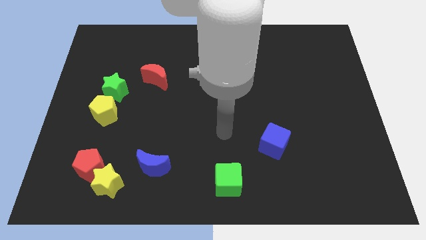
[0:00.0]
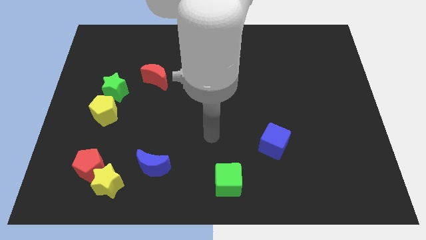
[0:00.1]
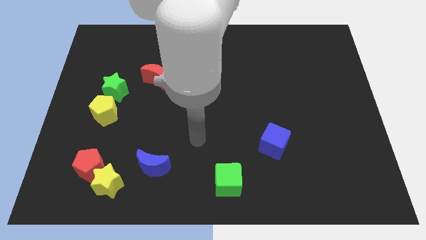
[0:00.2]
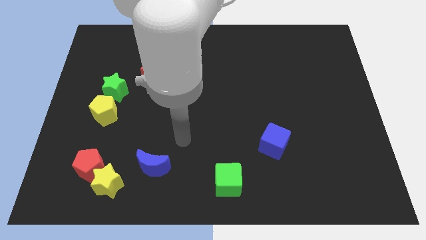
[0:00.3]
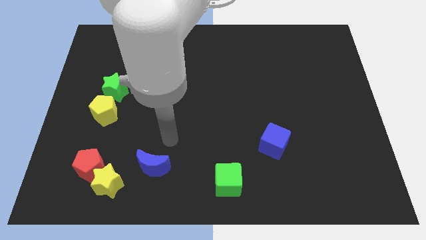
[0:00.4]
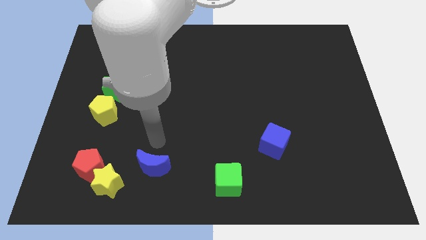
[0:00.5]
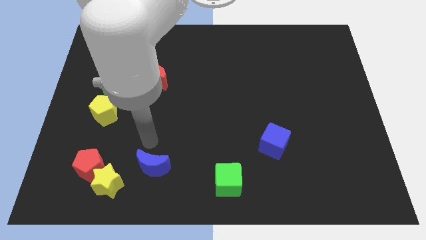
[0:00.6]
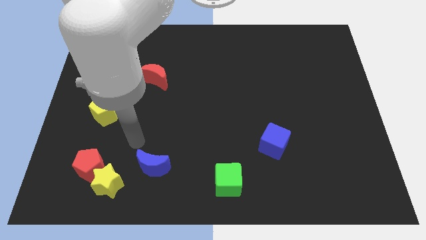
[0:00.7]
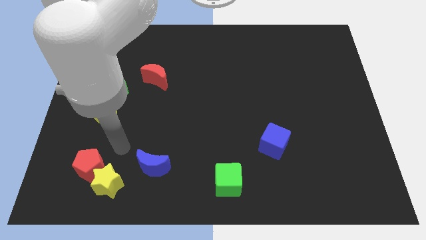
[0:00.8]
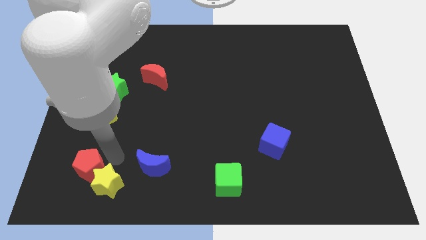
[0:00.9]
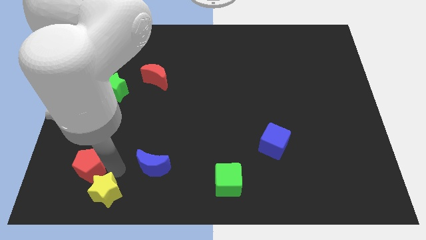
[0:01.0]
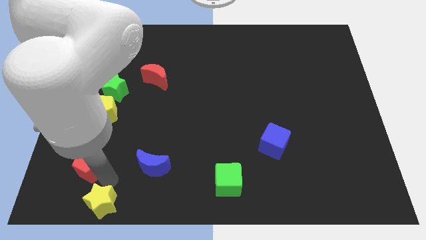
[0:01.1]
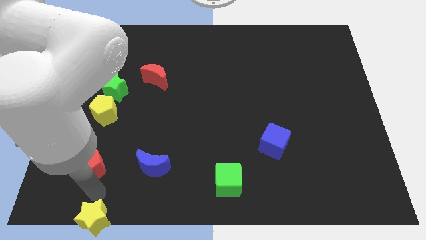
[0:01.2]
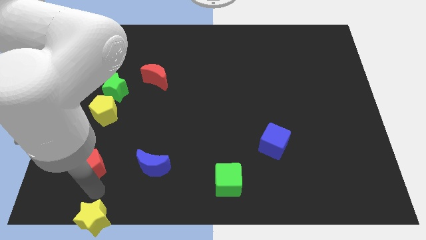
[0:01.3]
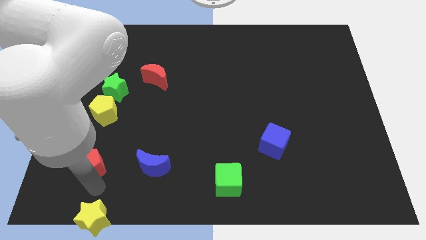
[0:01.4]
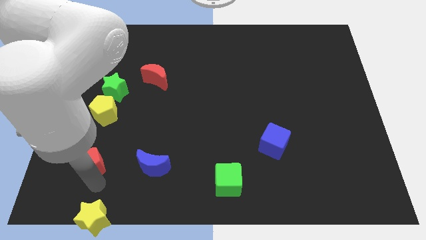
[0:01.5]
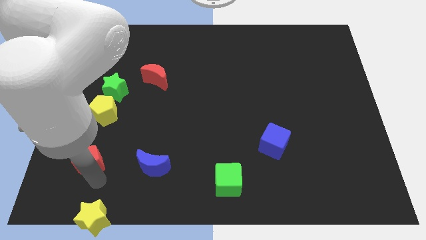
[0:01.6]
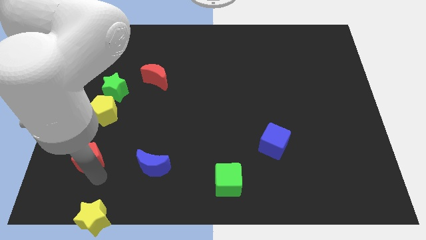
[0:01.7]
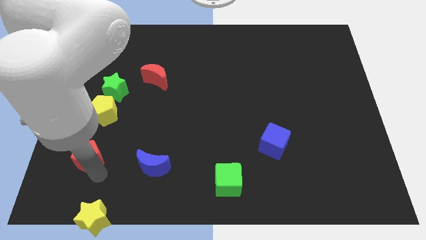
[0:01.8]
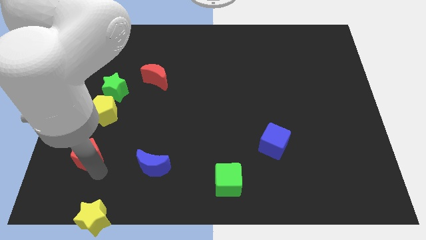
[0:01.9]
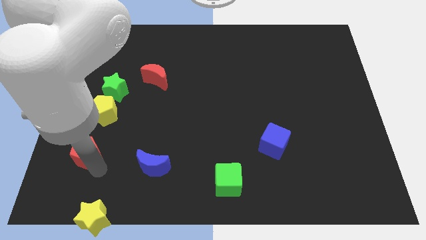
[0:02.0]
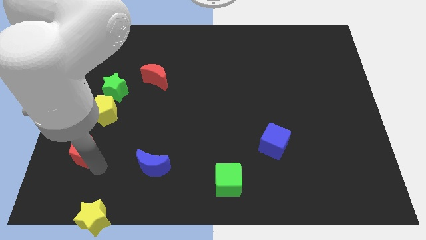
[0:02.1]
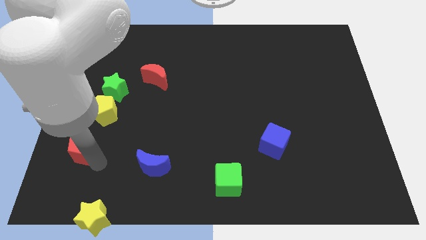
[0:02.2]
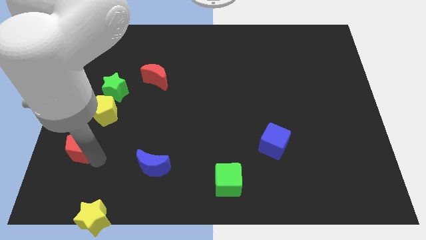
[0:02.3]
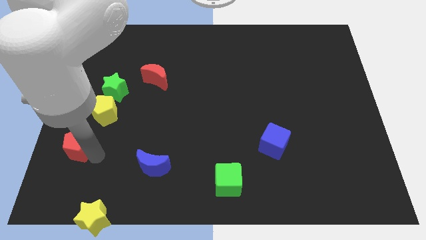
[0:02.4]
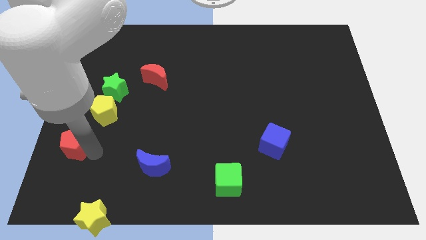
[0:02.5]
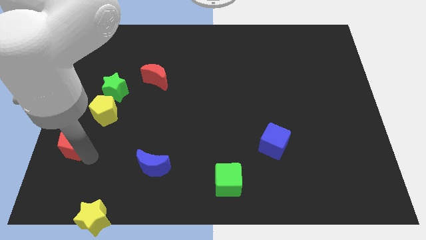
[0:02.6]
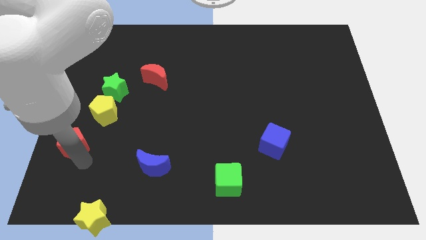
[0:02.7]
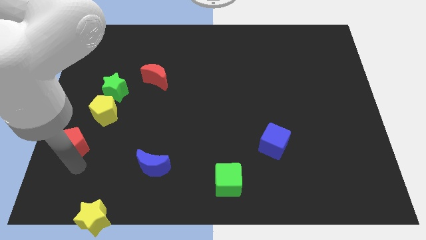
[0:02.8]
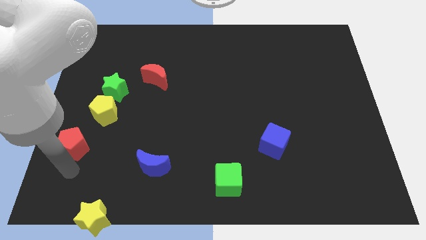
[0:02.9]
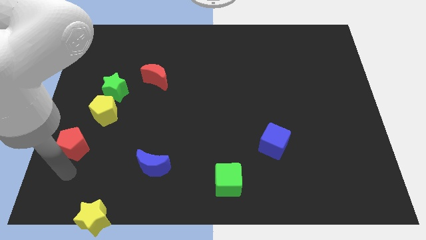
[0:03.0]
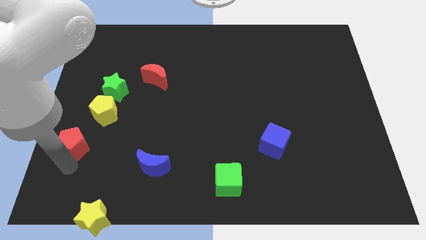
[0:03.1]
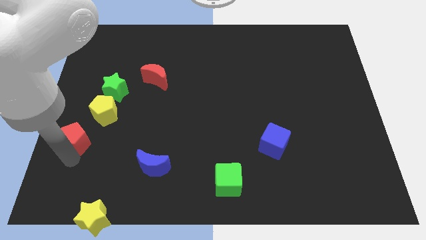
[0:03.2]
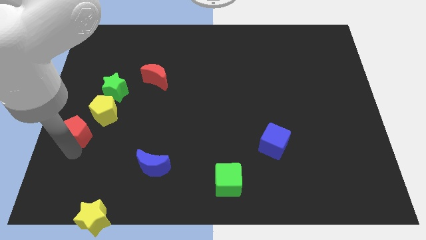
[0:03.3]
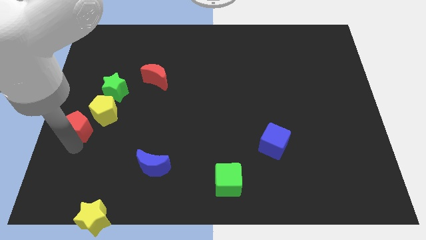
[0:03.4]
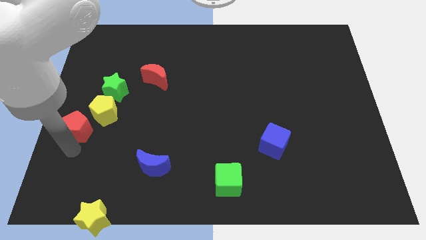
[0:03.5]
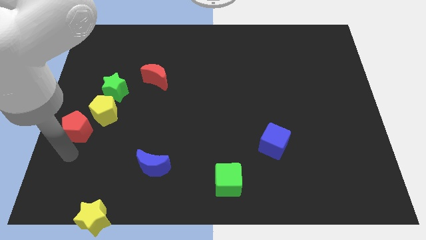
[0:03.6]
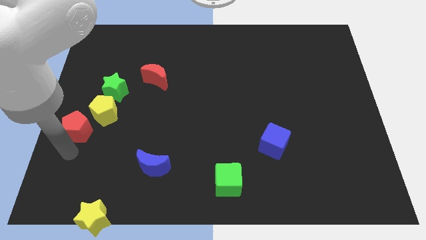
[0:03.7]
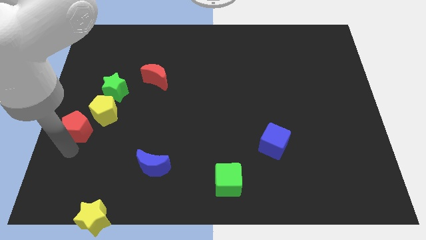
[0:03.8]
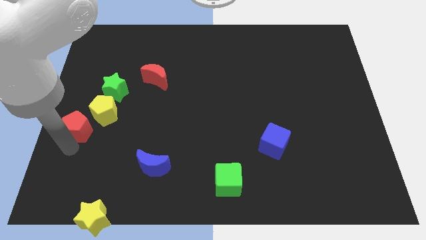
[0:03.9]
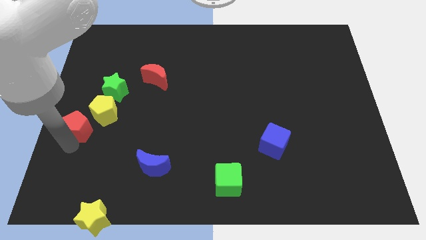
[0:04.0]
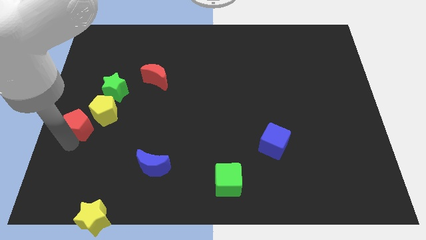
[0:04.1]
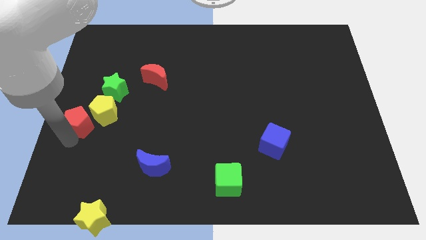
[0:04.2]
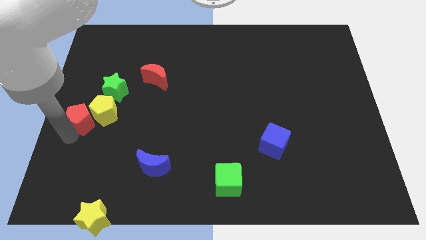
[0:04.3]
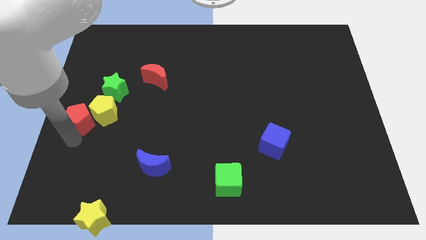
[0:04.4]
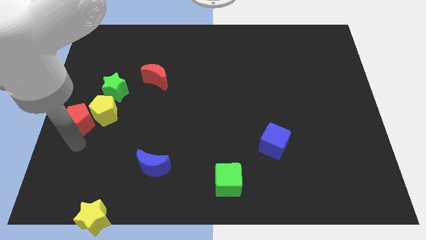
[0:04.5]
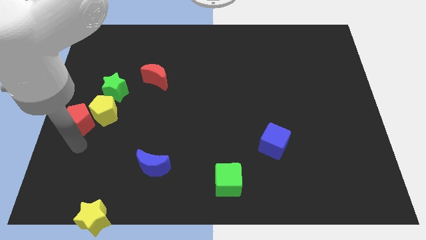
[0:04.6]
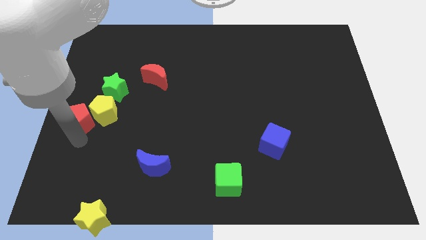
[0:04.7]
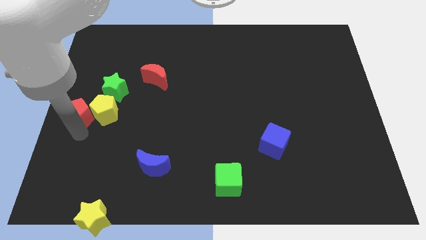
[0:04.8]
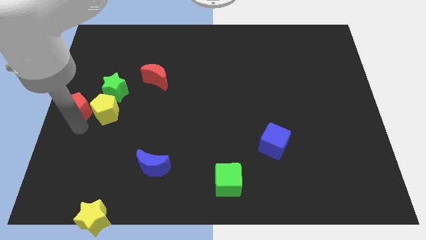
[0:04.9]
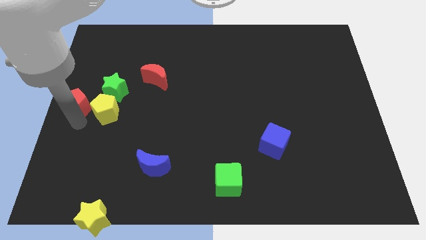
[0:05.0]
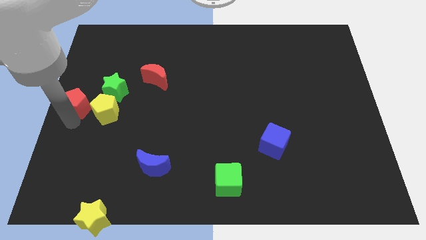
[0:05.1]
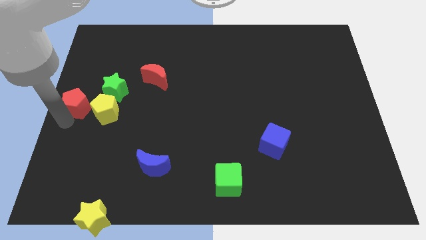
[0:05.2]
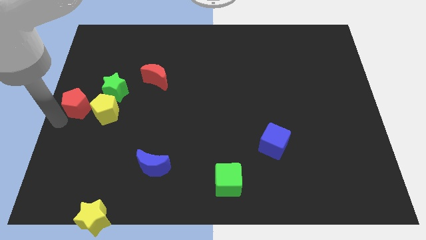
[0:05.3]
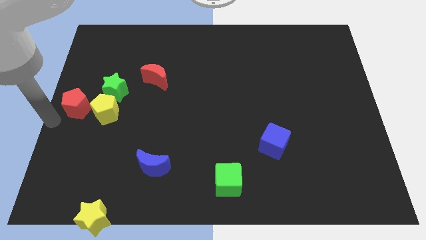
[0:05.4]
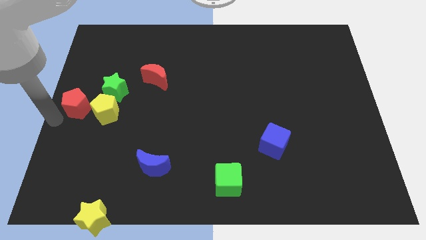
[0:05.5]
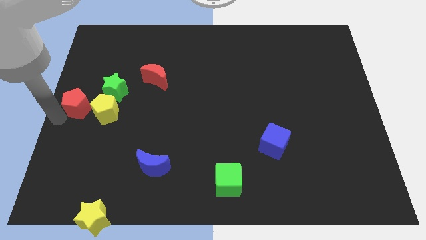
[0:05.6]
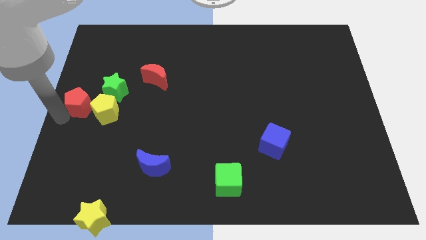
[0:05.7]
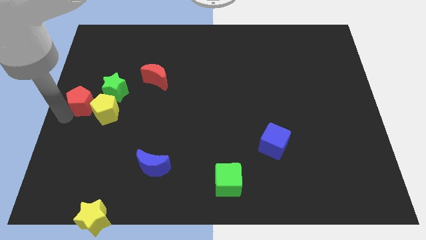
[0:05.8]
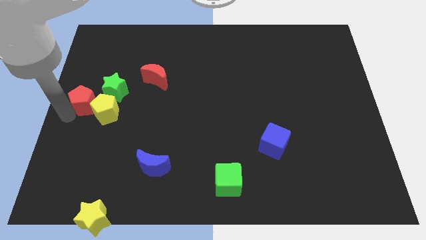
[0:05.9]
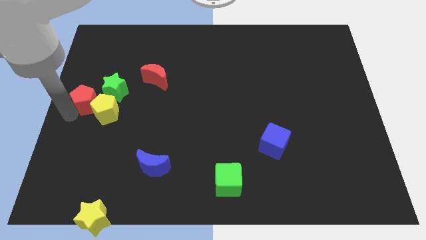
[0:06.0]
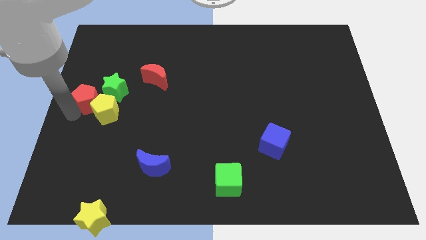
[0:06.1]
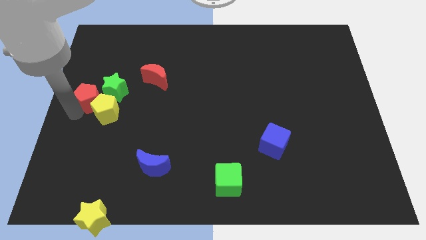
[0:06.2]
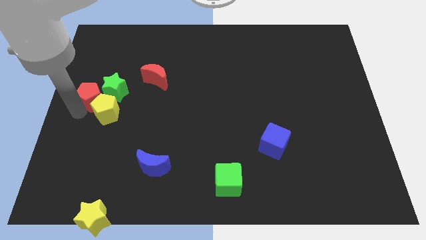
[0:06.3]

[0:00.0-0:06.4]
push the red pentagon to the green star
